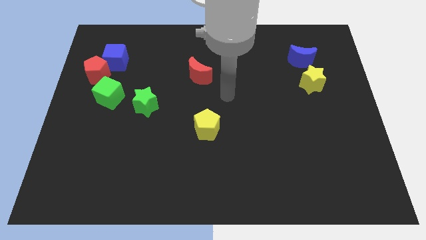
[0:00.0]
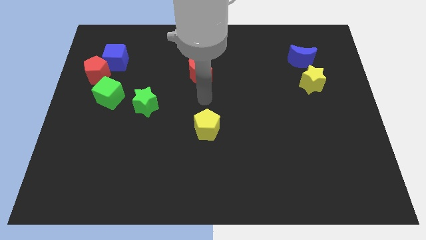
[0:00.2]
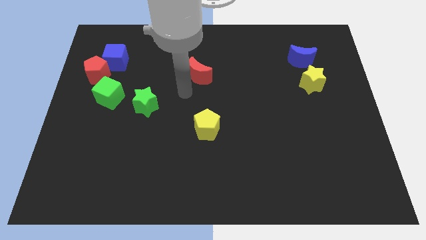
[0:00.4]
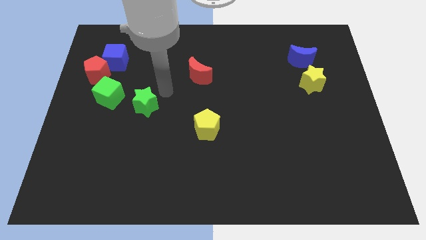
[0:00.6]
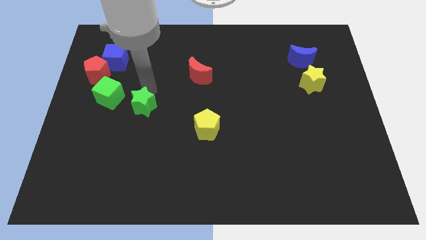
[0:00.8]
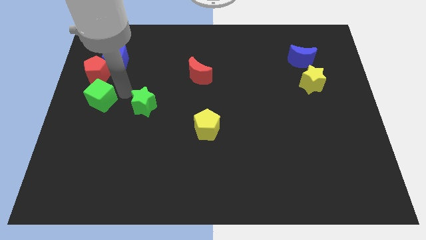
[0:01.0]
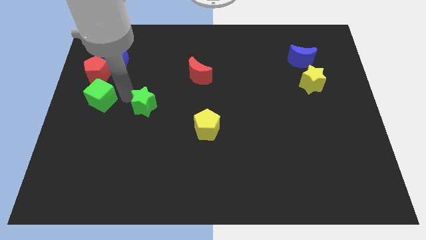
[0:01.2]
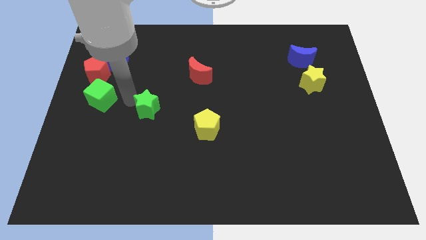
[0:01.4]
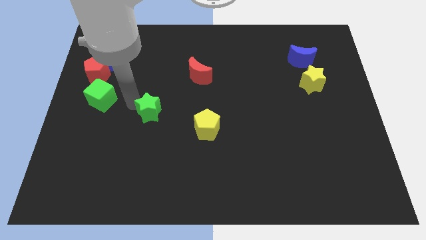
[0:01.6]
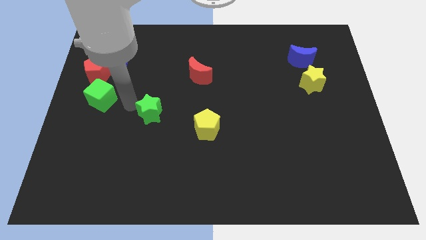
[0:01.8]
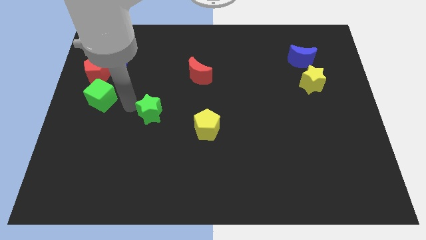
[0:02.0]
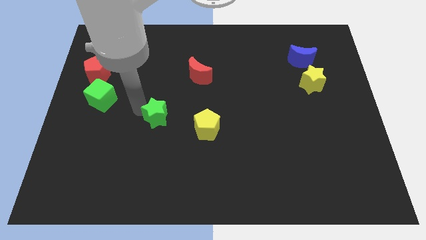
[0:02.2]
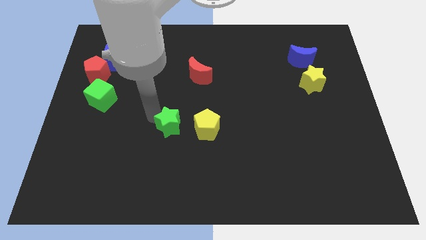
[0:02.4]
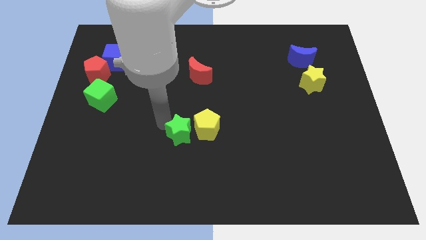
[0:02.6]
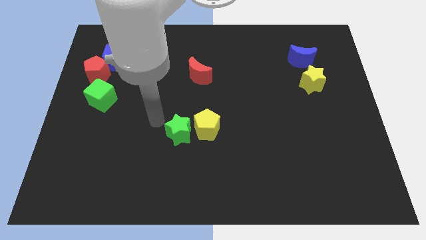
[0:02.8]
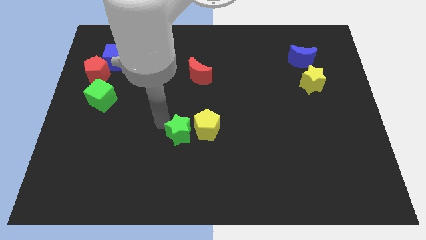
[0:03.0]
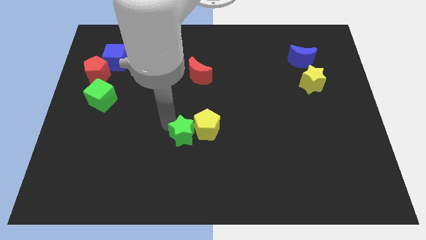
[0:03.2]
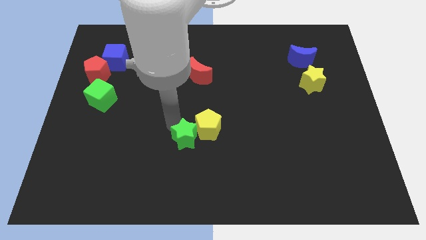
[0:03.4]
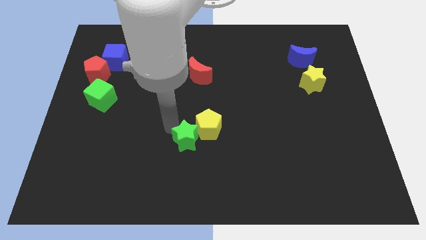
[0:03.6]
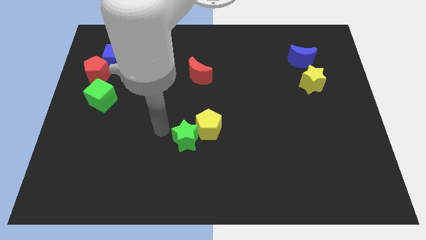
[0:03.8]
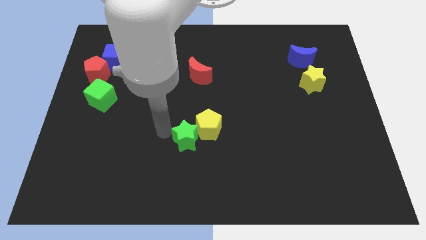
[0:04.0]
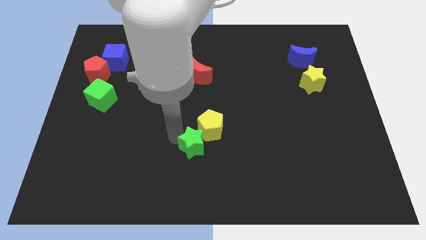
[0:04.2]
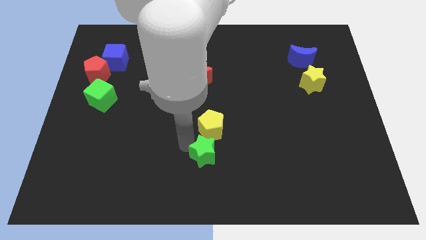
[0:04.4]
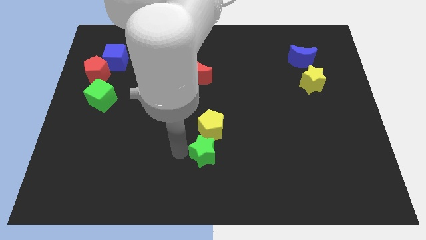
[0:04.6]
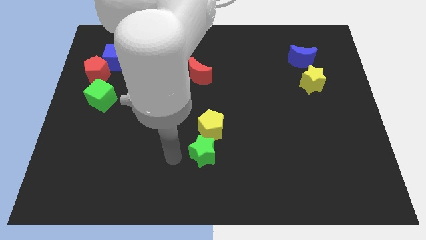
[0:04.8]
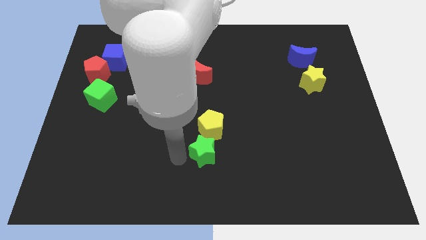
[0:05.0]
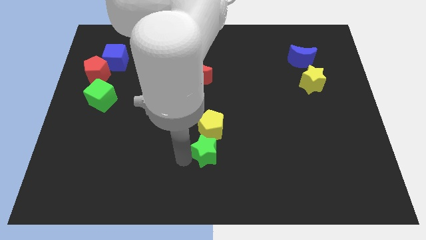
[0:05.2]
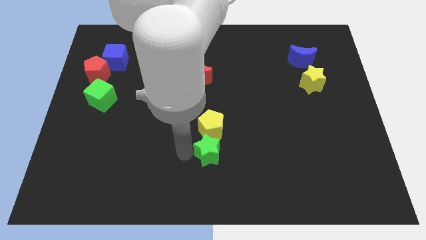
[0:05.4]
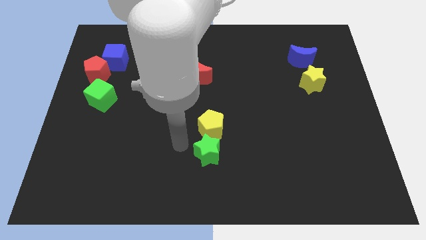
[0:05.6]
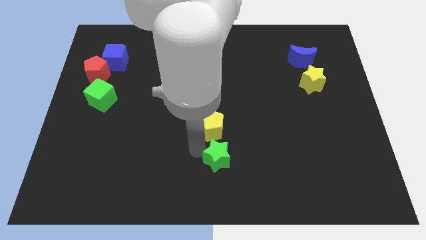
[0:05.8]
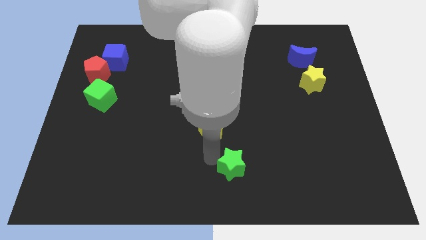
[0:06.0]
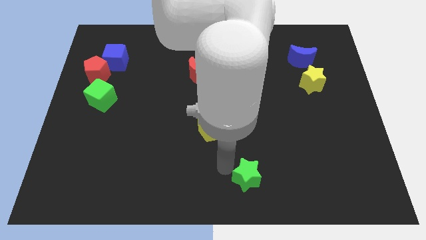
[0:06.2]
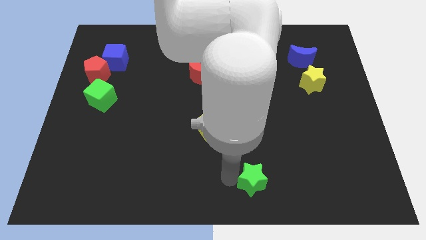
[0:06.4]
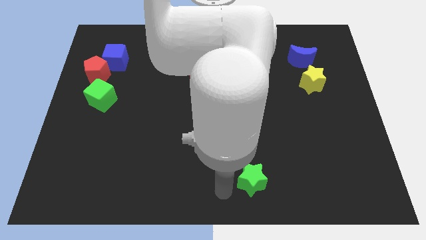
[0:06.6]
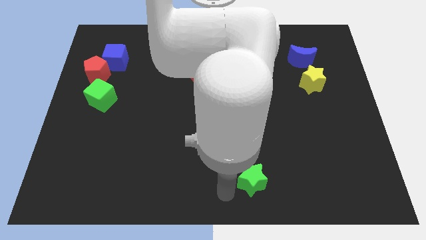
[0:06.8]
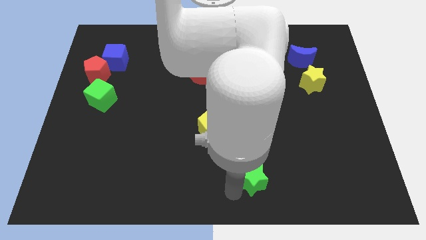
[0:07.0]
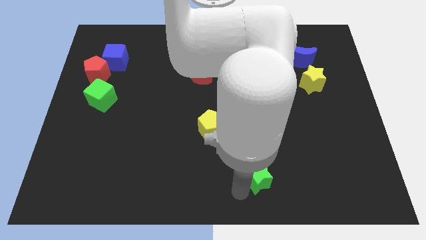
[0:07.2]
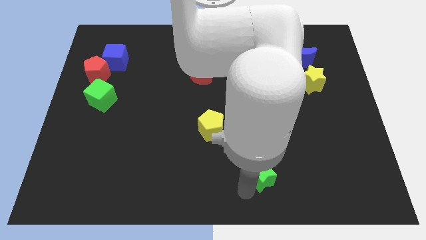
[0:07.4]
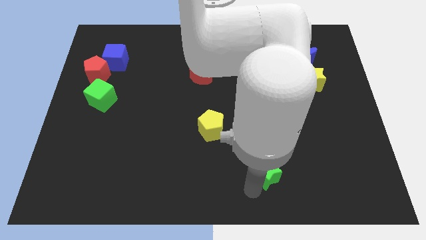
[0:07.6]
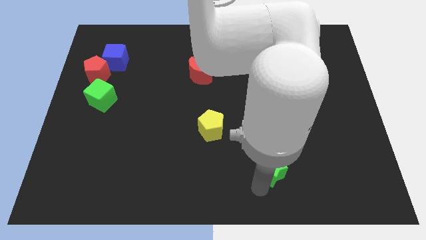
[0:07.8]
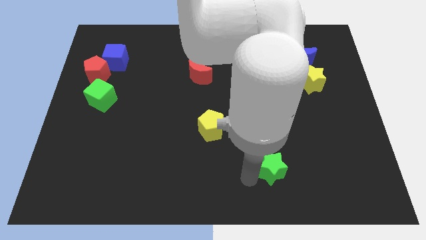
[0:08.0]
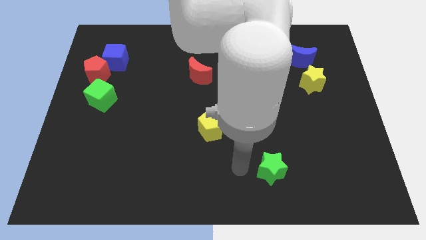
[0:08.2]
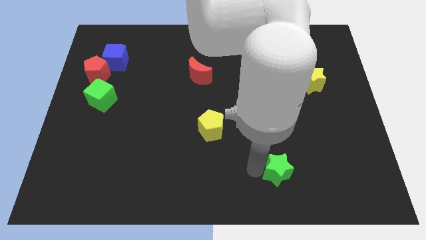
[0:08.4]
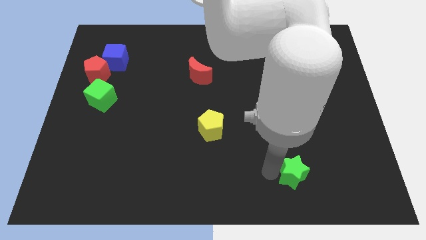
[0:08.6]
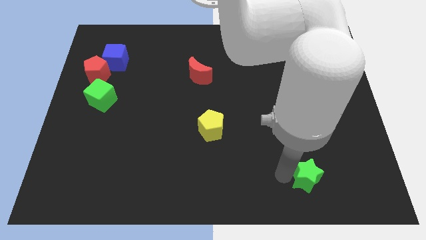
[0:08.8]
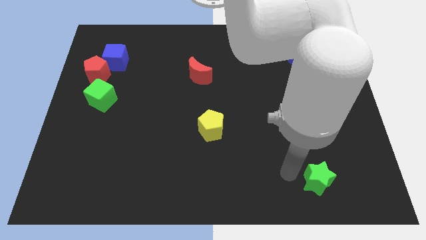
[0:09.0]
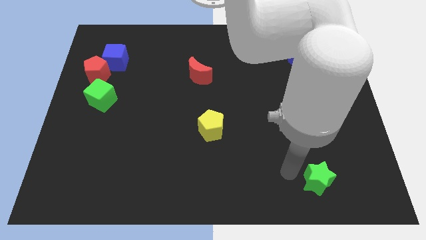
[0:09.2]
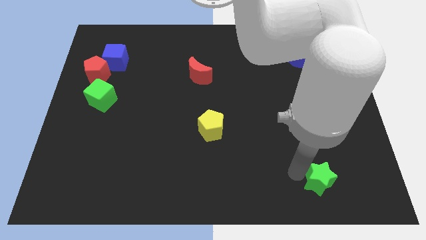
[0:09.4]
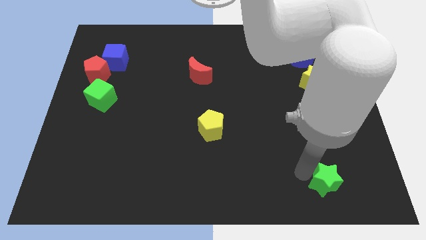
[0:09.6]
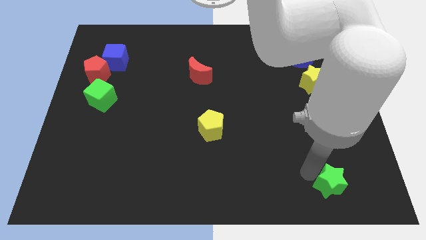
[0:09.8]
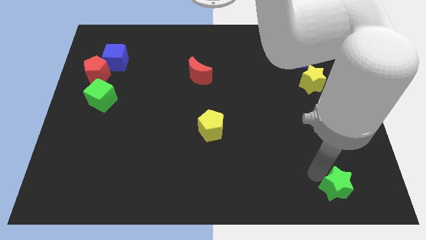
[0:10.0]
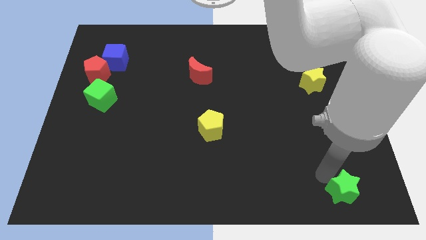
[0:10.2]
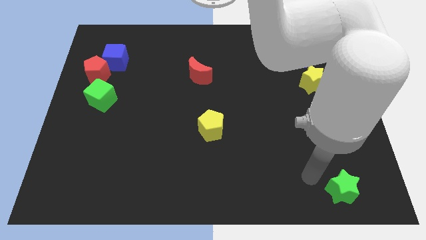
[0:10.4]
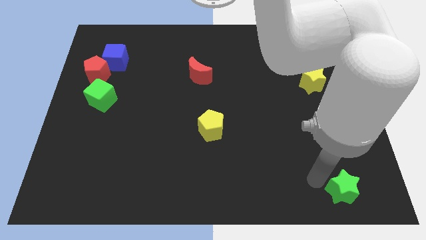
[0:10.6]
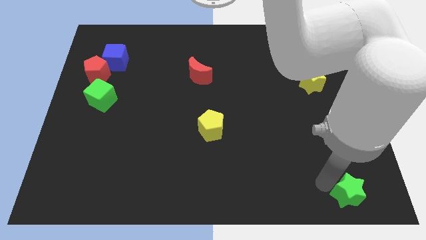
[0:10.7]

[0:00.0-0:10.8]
slide the green star to the bottom right

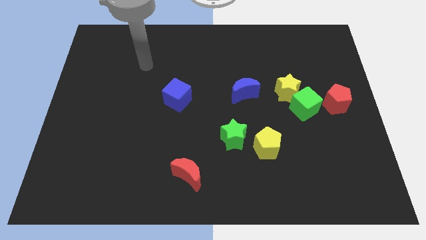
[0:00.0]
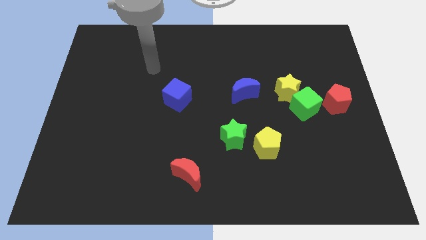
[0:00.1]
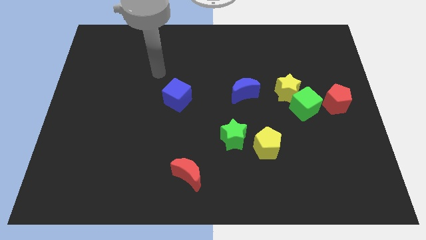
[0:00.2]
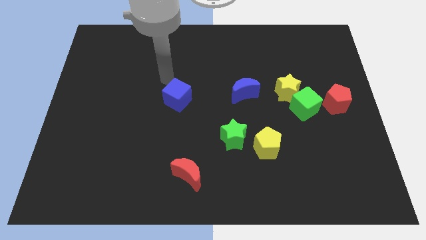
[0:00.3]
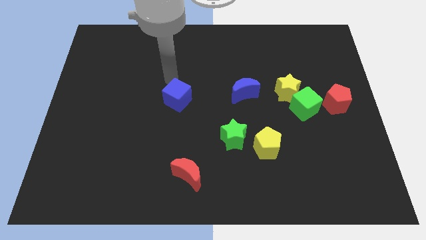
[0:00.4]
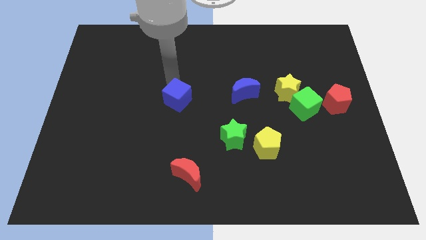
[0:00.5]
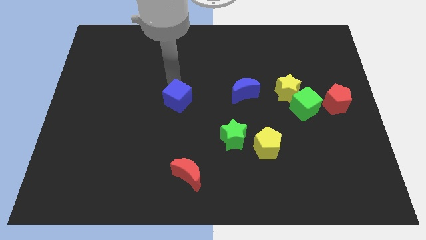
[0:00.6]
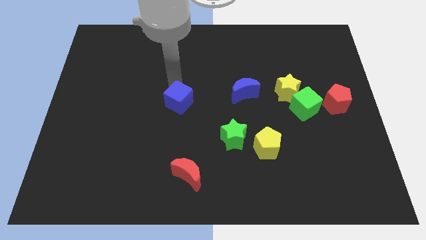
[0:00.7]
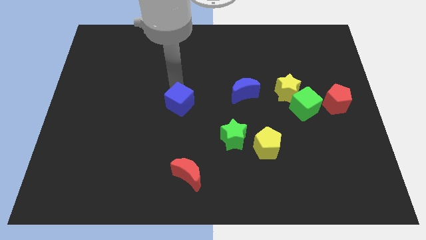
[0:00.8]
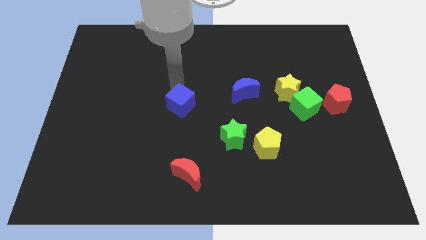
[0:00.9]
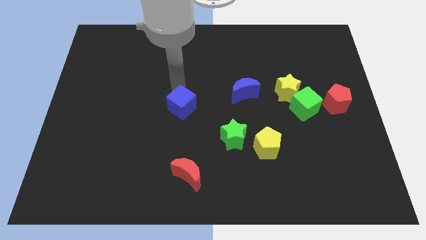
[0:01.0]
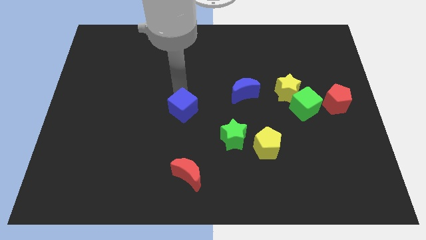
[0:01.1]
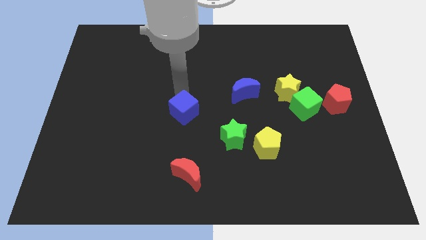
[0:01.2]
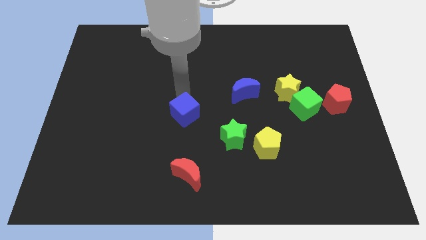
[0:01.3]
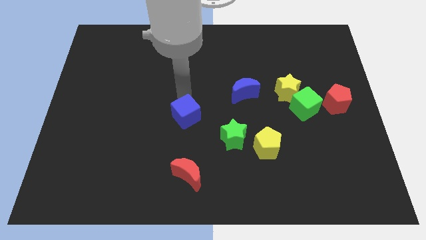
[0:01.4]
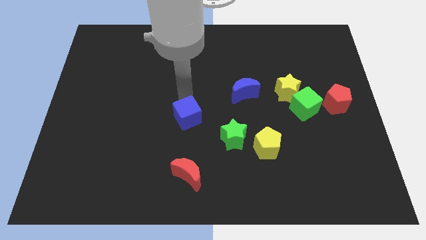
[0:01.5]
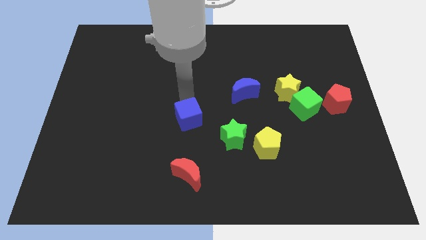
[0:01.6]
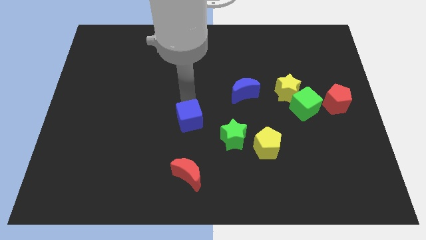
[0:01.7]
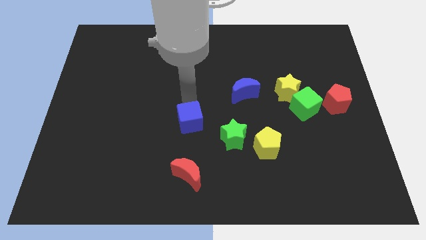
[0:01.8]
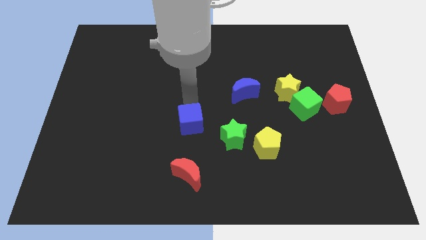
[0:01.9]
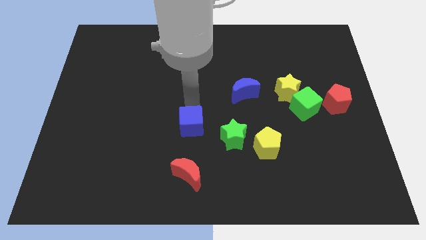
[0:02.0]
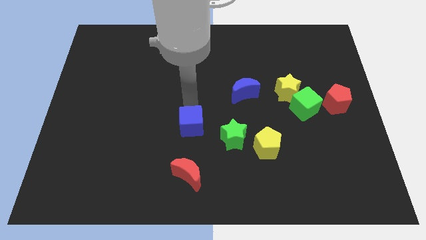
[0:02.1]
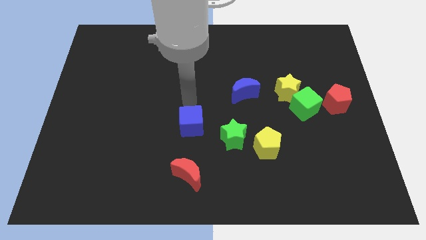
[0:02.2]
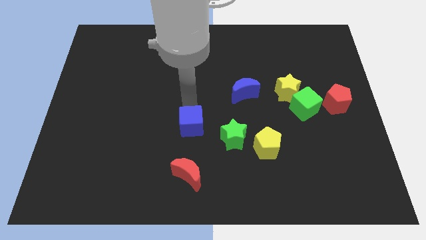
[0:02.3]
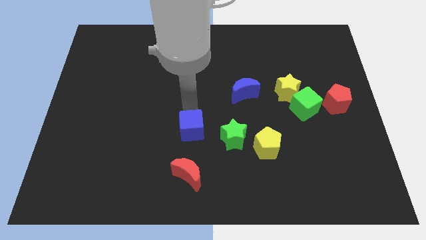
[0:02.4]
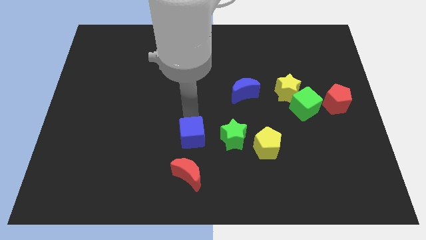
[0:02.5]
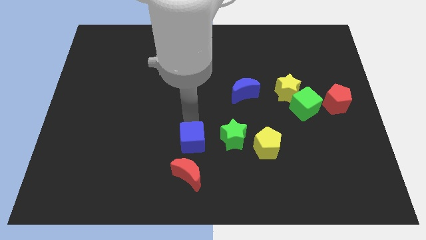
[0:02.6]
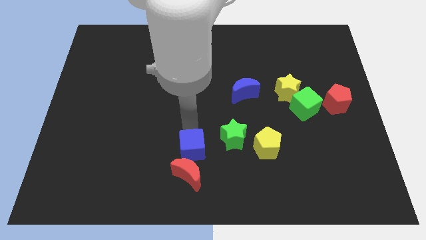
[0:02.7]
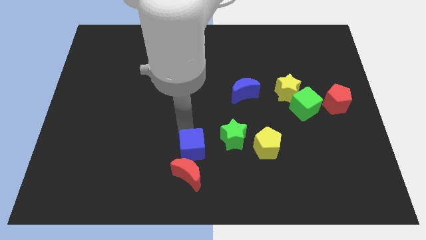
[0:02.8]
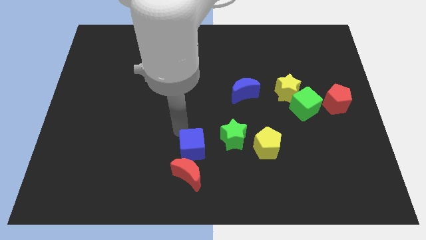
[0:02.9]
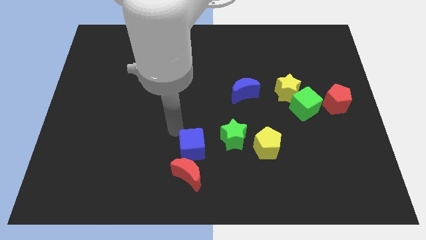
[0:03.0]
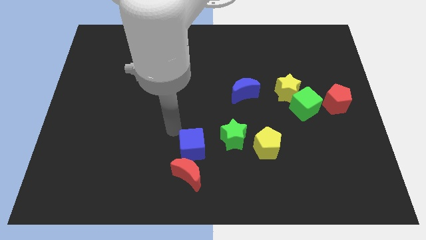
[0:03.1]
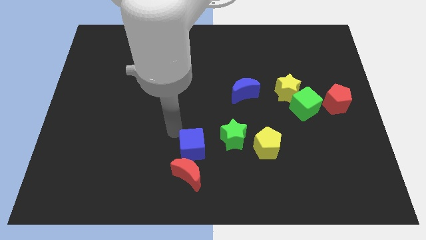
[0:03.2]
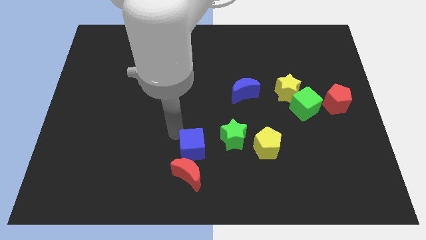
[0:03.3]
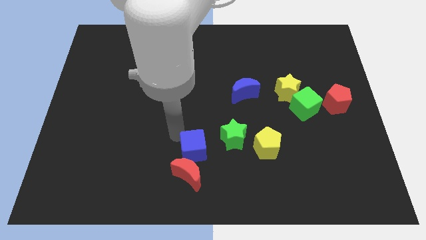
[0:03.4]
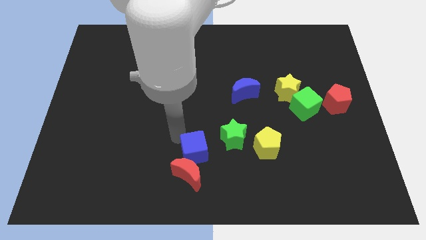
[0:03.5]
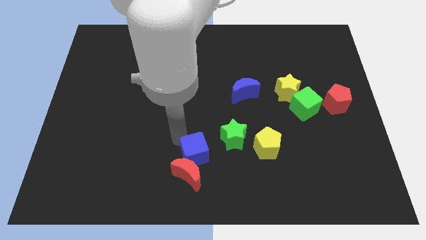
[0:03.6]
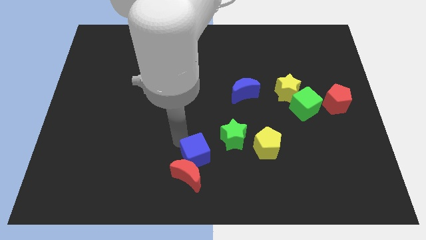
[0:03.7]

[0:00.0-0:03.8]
push the blue cube to the bottom
